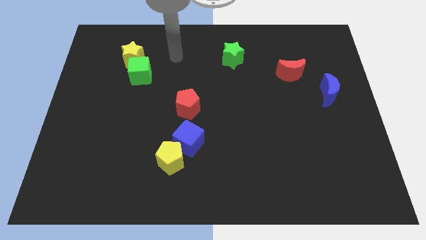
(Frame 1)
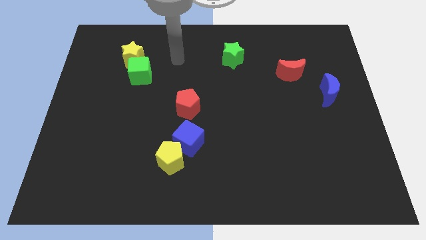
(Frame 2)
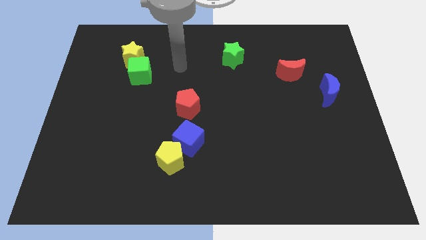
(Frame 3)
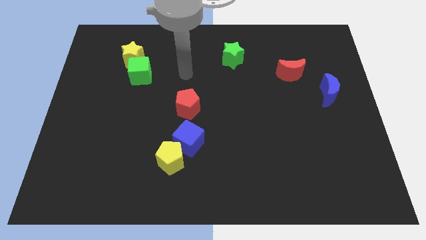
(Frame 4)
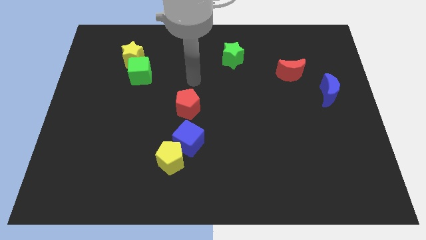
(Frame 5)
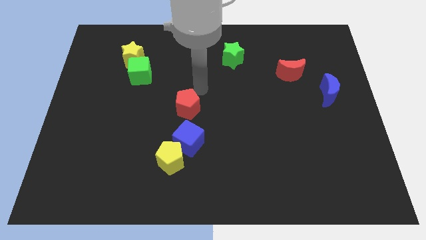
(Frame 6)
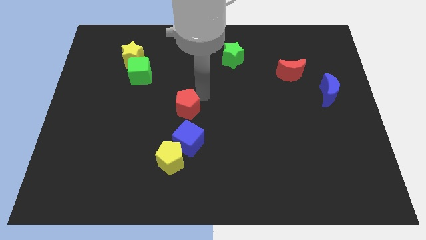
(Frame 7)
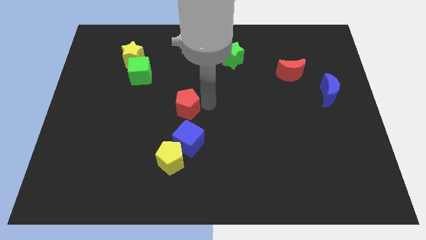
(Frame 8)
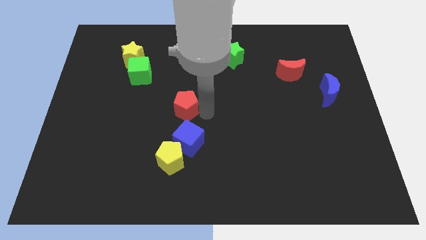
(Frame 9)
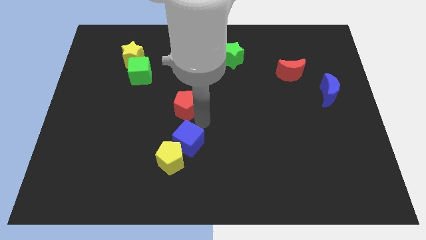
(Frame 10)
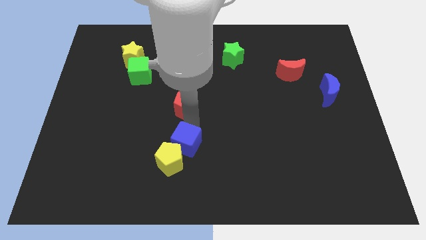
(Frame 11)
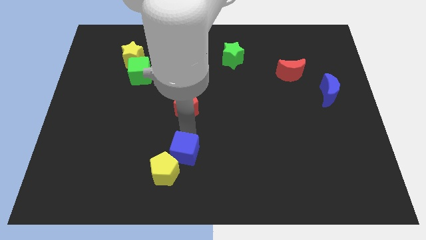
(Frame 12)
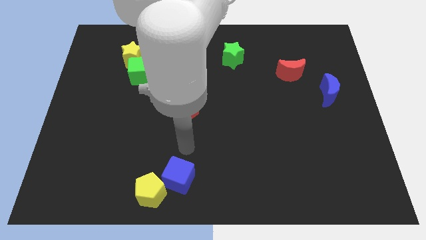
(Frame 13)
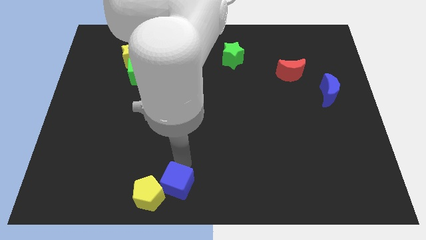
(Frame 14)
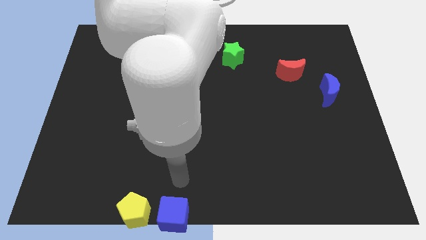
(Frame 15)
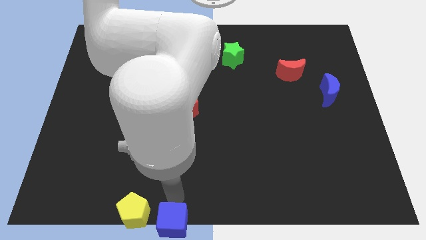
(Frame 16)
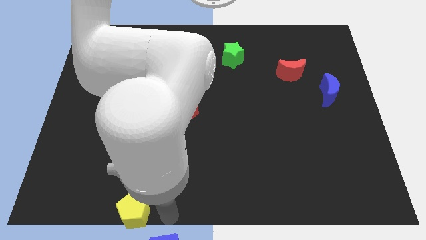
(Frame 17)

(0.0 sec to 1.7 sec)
move the yellow pentagon away from the blue cube

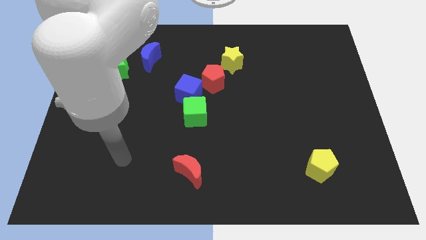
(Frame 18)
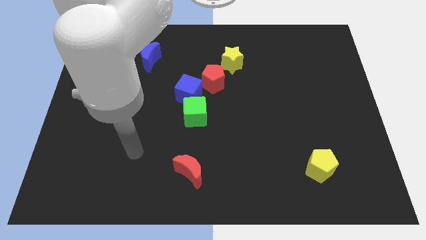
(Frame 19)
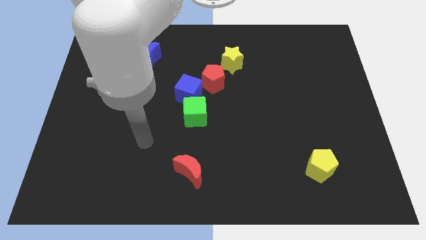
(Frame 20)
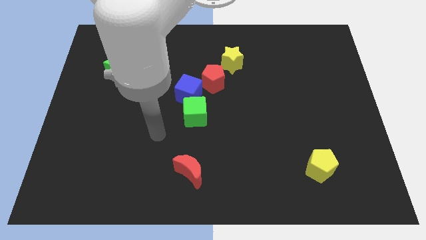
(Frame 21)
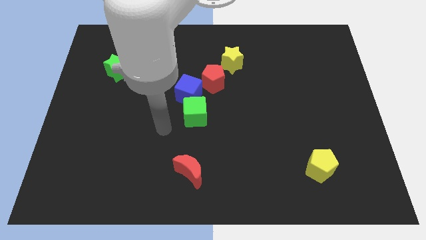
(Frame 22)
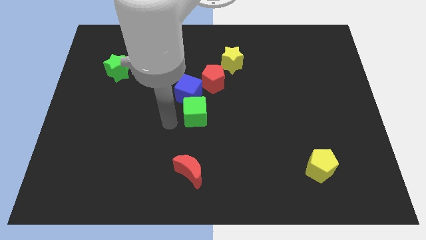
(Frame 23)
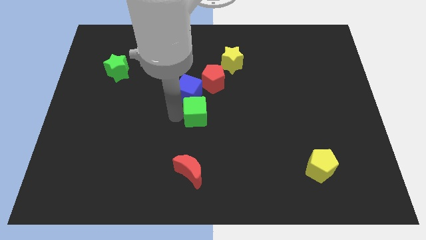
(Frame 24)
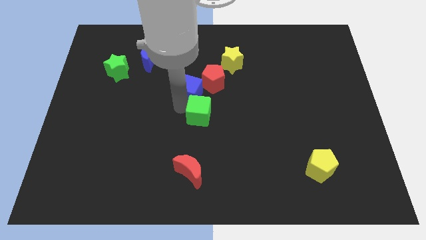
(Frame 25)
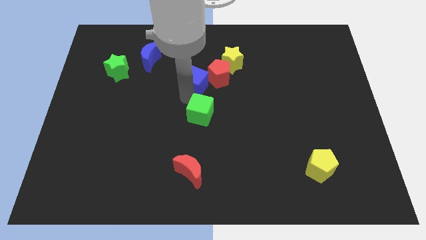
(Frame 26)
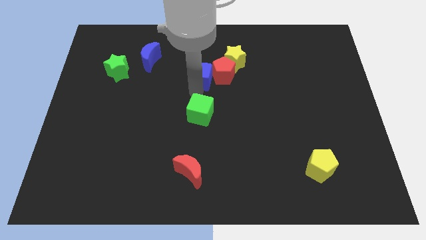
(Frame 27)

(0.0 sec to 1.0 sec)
move the green cube away from the blue cube

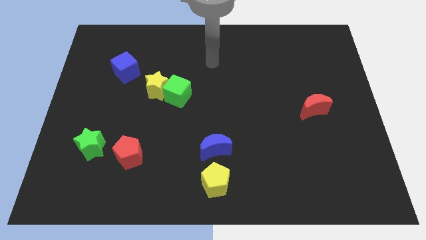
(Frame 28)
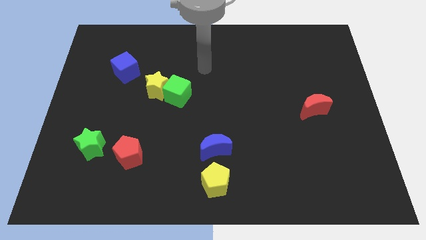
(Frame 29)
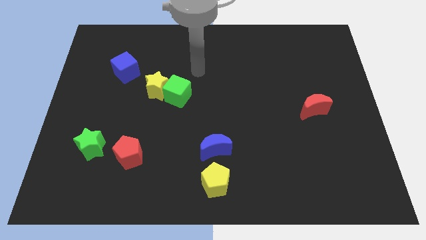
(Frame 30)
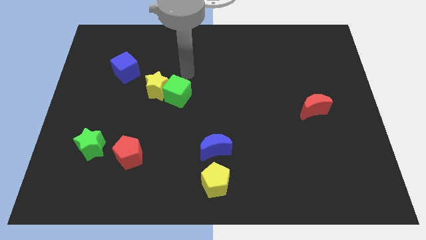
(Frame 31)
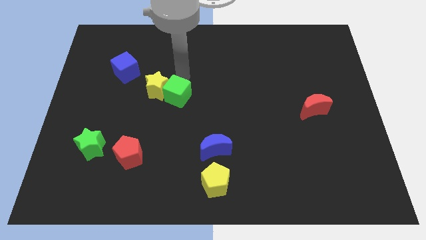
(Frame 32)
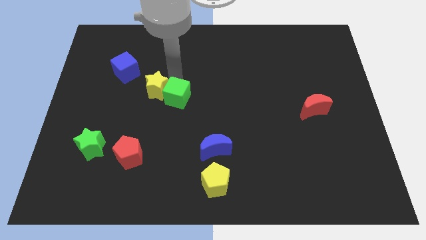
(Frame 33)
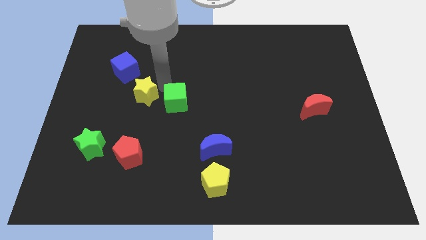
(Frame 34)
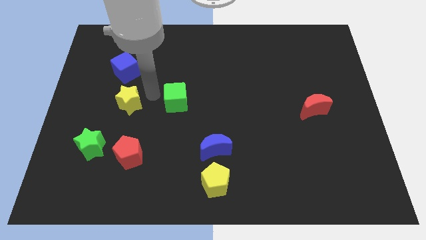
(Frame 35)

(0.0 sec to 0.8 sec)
separate the green cube from the yellow star

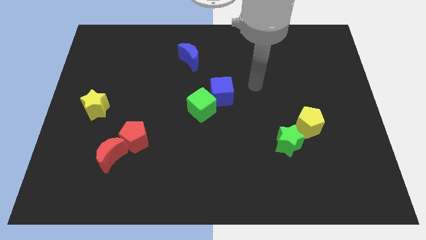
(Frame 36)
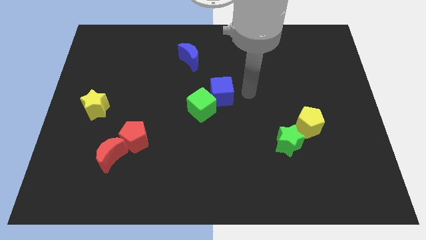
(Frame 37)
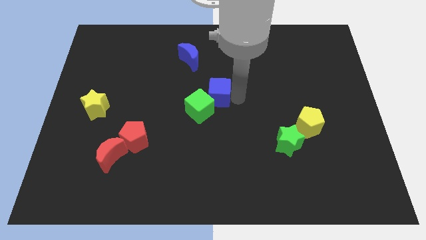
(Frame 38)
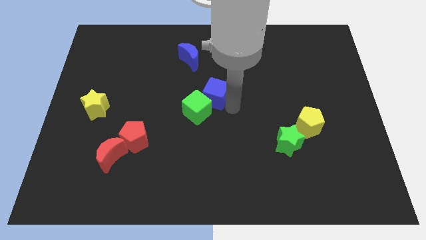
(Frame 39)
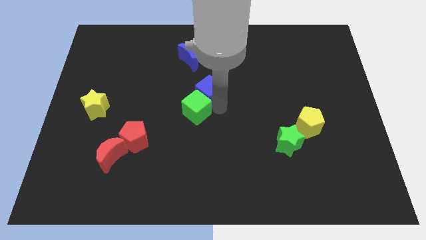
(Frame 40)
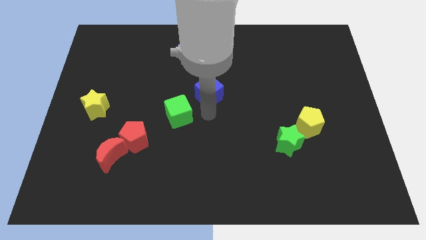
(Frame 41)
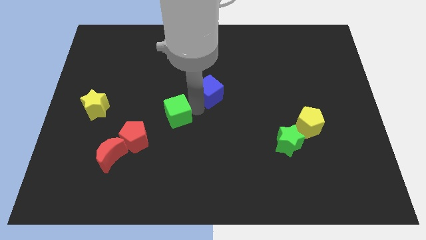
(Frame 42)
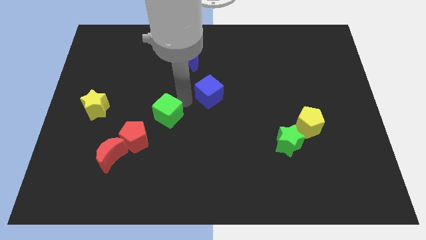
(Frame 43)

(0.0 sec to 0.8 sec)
pull the blue cube apart from the green cube

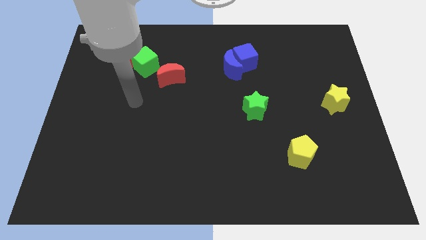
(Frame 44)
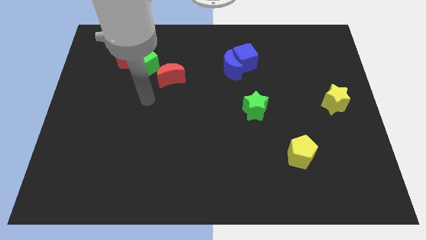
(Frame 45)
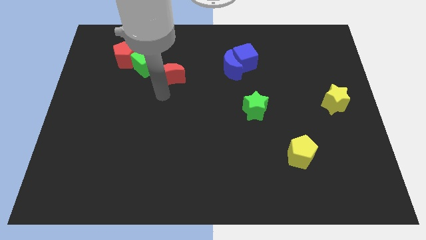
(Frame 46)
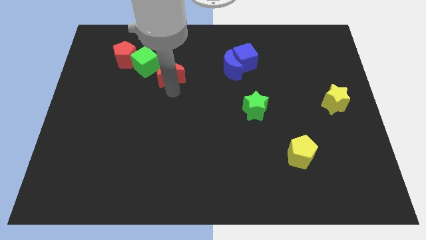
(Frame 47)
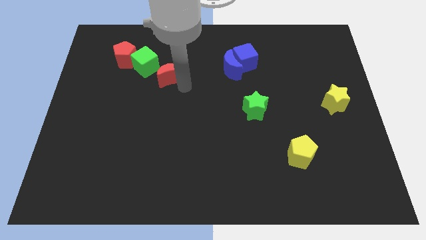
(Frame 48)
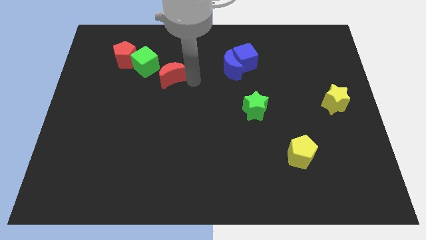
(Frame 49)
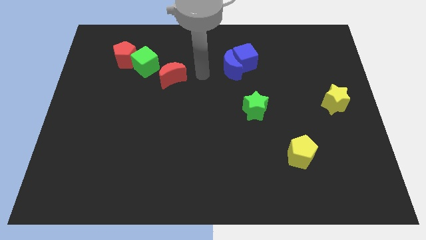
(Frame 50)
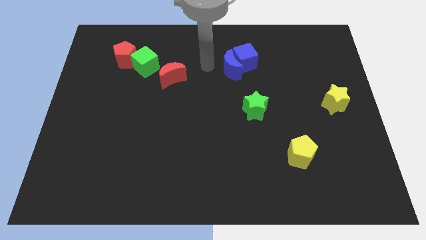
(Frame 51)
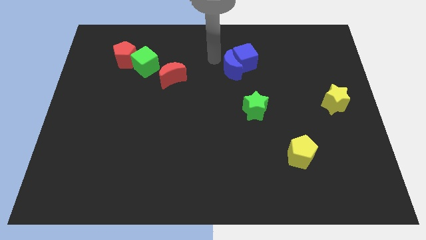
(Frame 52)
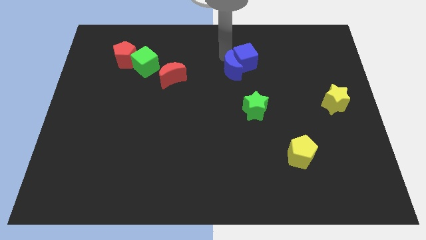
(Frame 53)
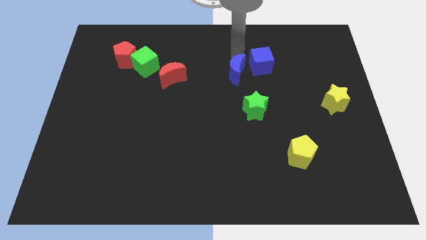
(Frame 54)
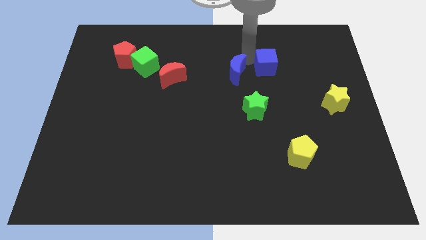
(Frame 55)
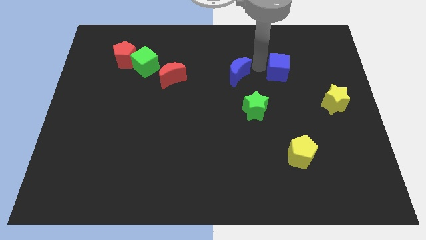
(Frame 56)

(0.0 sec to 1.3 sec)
separate the blue moon from the blue cube

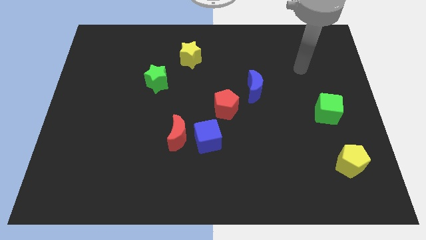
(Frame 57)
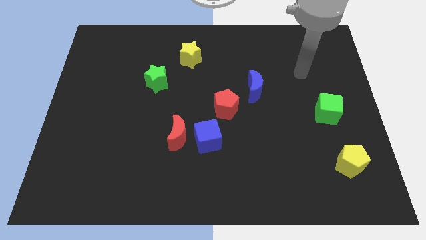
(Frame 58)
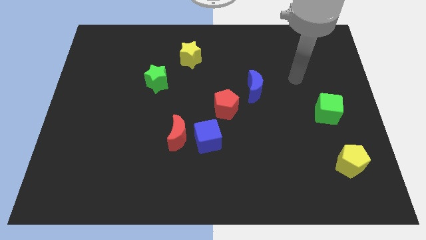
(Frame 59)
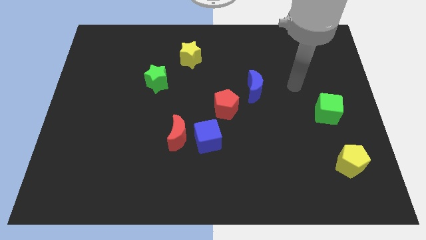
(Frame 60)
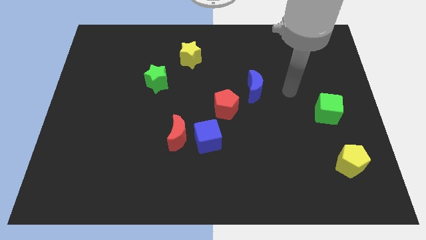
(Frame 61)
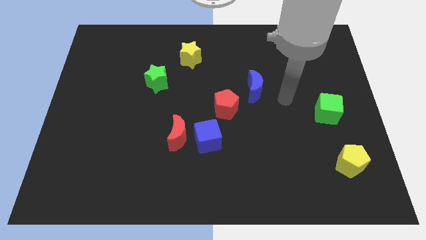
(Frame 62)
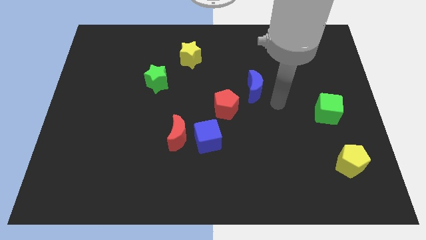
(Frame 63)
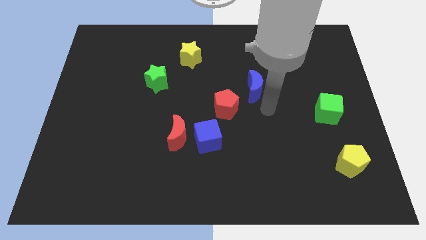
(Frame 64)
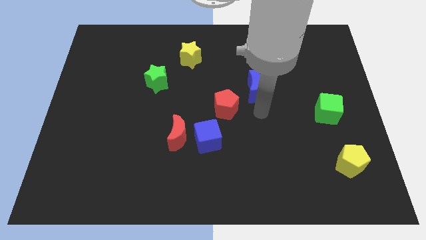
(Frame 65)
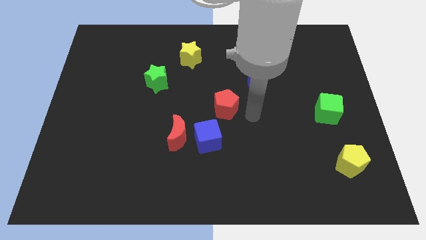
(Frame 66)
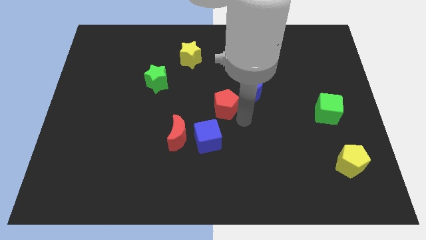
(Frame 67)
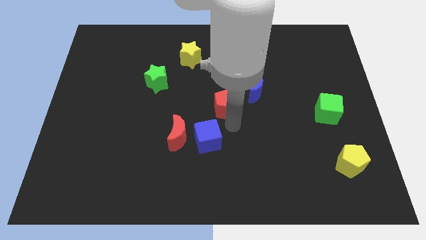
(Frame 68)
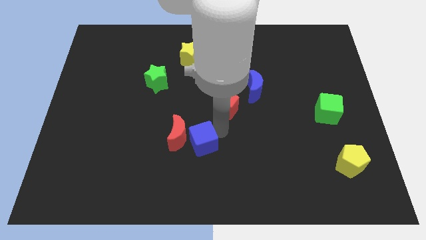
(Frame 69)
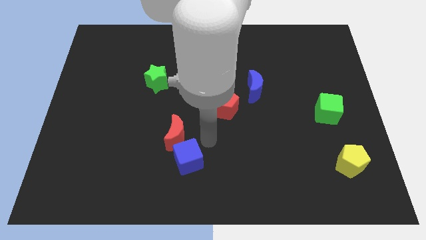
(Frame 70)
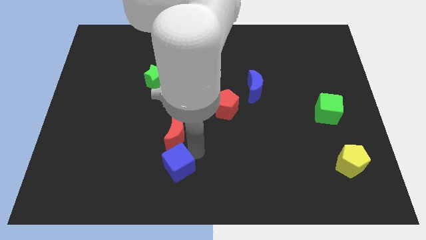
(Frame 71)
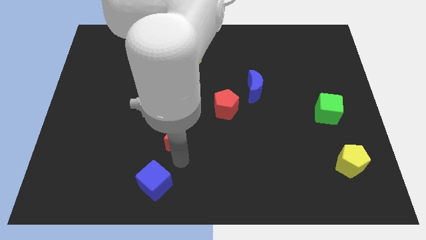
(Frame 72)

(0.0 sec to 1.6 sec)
separate the red moon from the blue cube

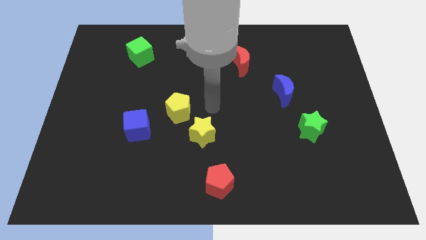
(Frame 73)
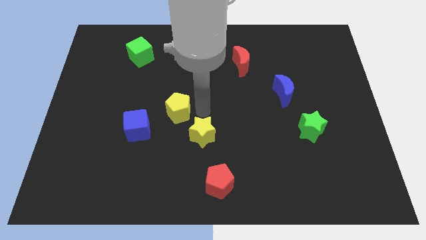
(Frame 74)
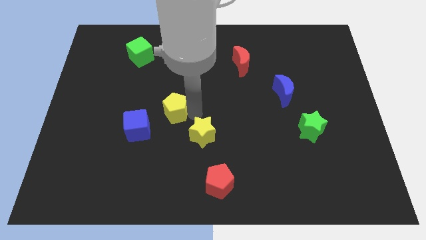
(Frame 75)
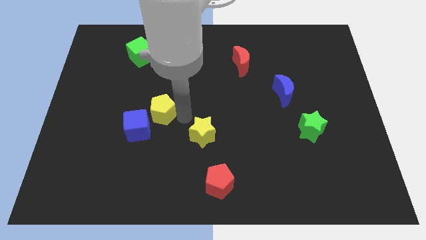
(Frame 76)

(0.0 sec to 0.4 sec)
separate the yellow star from the yellow pentagon

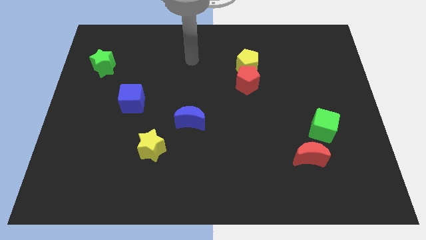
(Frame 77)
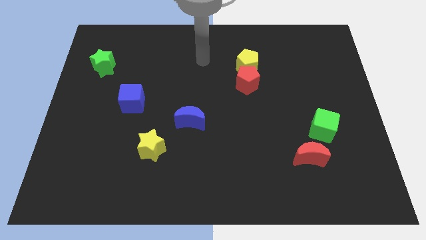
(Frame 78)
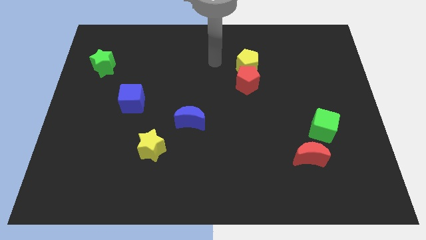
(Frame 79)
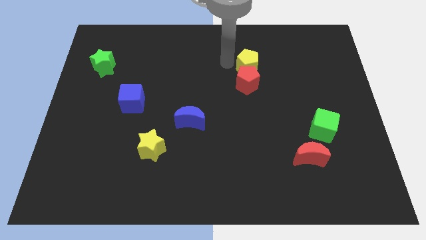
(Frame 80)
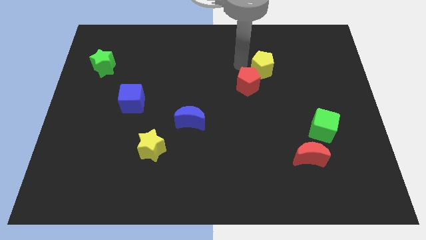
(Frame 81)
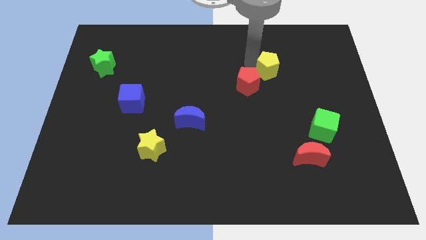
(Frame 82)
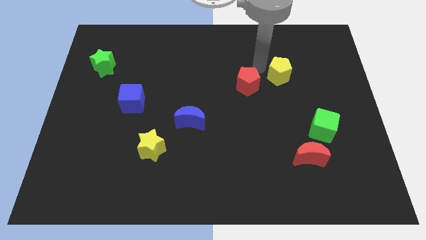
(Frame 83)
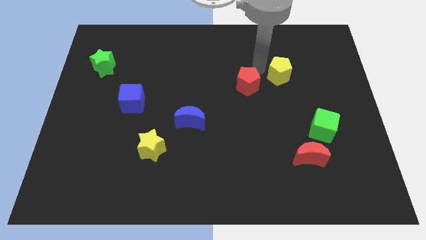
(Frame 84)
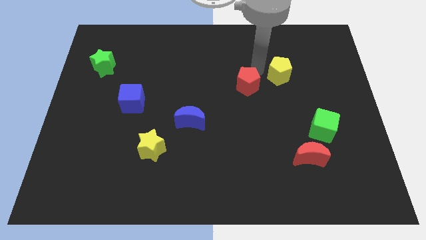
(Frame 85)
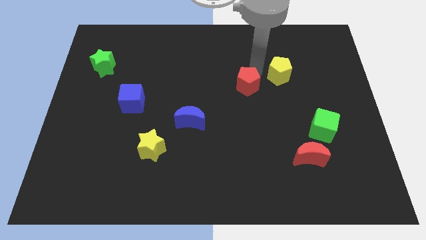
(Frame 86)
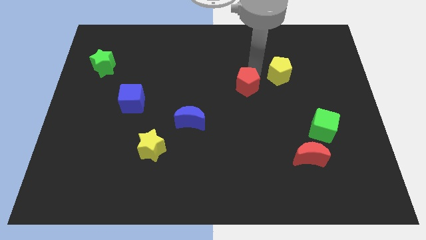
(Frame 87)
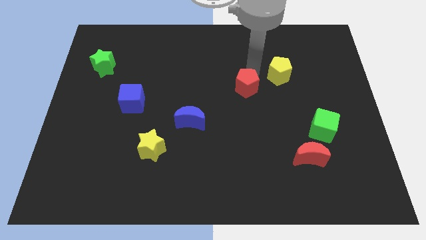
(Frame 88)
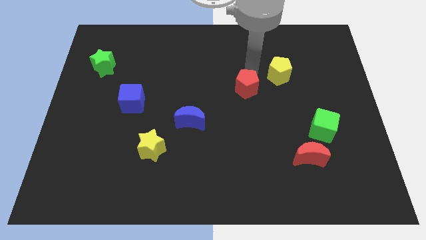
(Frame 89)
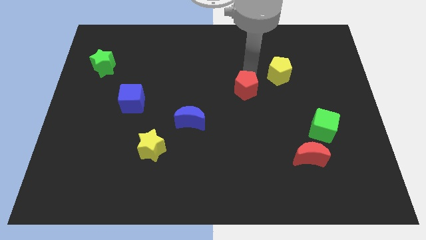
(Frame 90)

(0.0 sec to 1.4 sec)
move the red pentagon away from the yellow pentagon

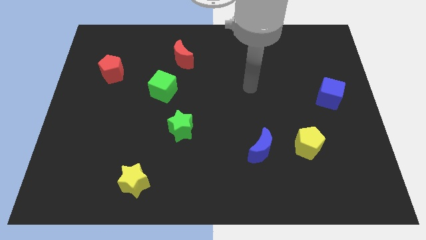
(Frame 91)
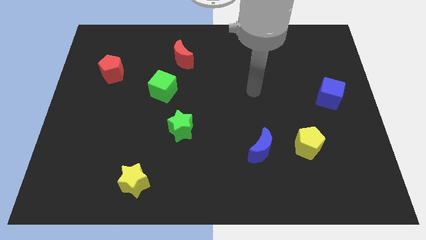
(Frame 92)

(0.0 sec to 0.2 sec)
pull the blue moon apart from the yellow pentagon
